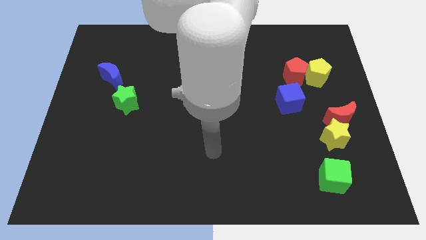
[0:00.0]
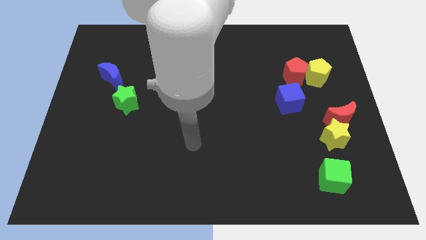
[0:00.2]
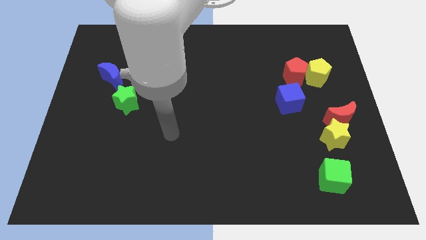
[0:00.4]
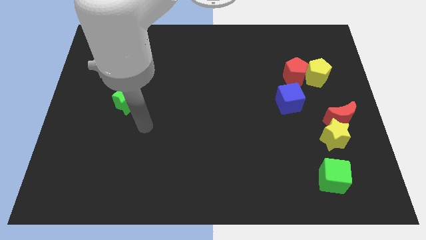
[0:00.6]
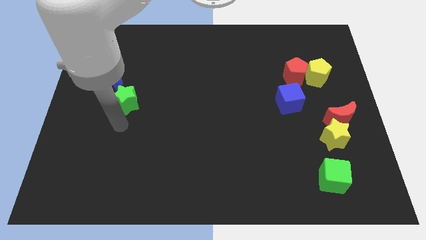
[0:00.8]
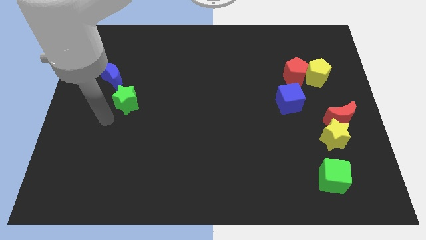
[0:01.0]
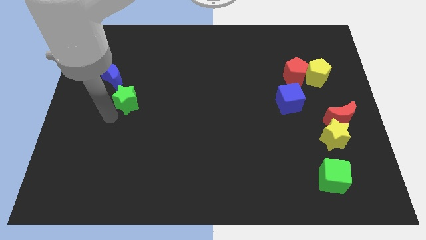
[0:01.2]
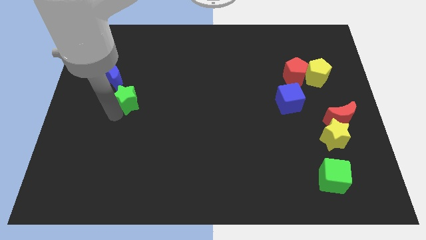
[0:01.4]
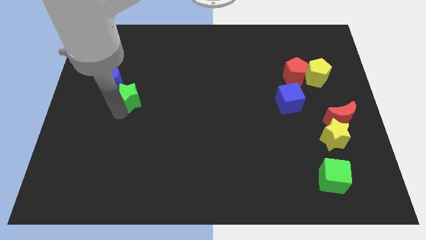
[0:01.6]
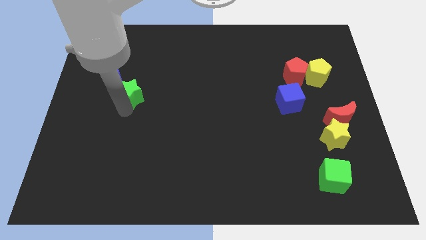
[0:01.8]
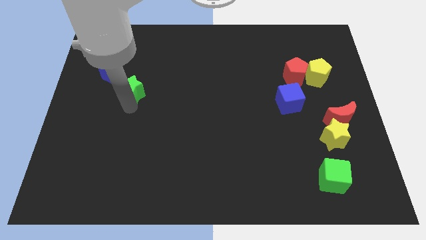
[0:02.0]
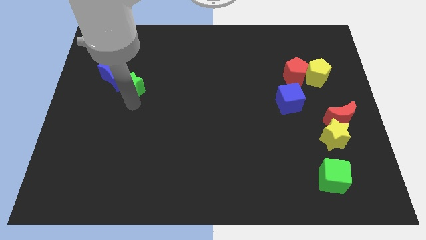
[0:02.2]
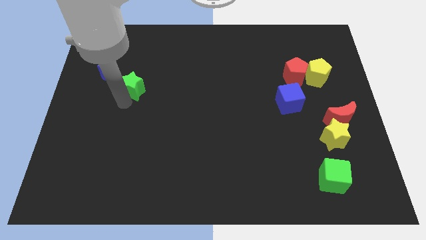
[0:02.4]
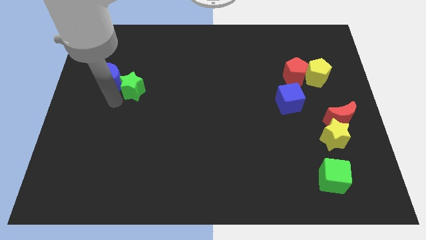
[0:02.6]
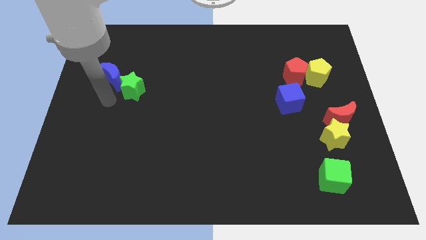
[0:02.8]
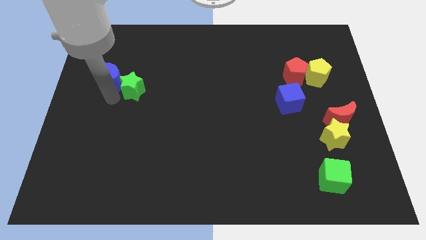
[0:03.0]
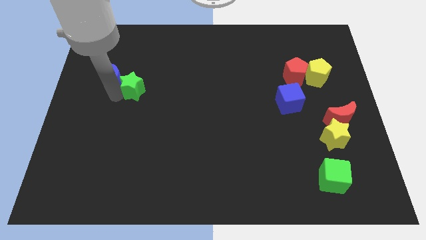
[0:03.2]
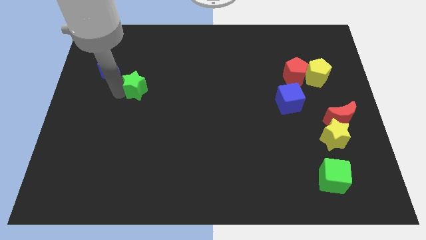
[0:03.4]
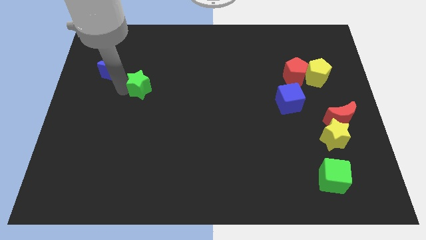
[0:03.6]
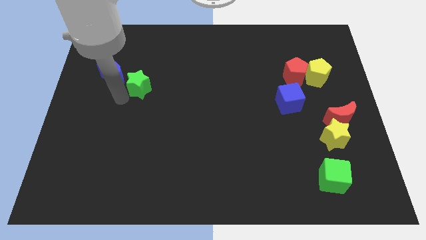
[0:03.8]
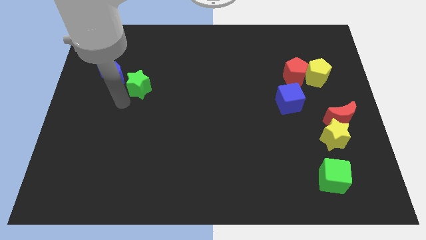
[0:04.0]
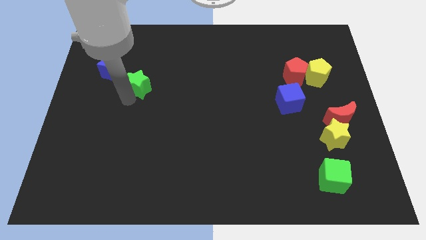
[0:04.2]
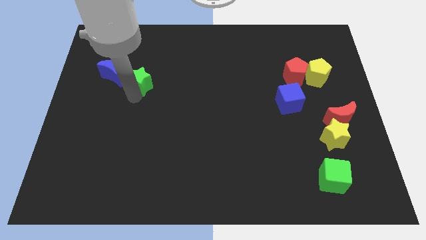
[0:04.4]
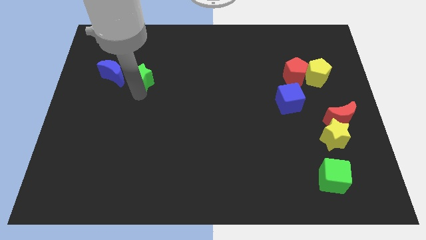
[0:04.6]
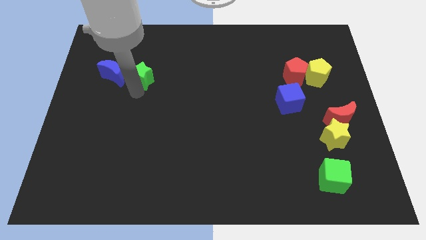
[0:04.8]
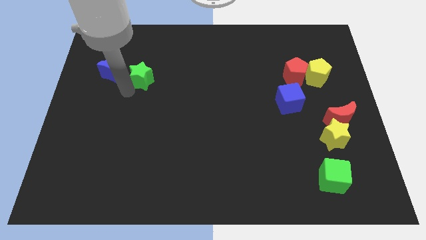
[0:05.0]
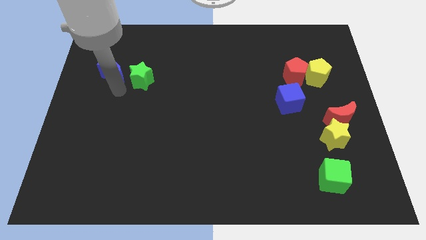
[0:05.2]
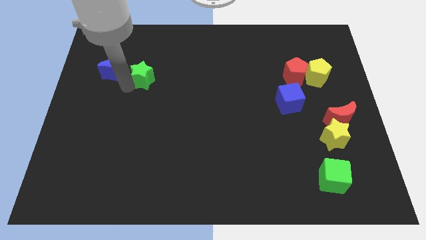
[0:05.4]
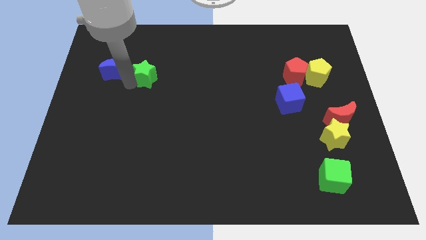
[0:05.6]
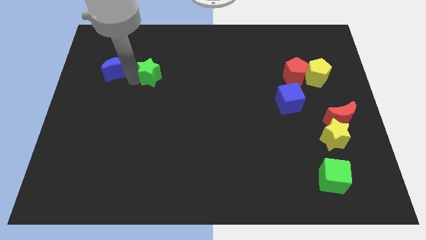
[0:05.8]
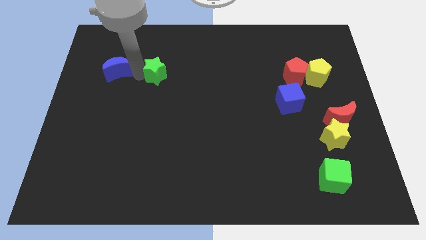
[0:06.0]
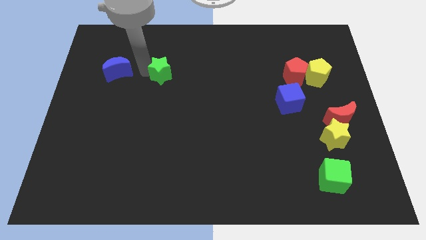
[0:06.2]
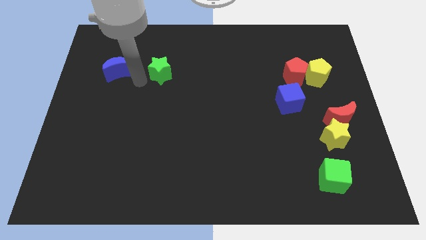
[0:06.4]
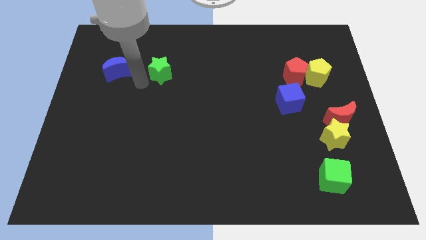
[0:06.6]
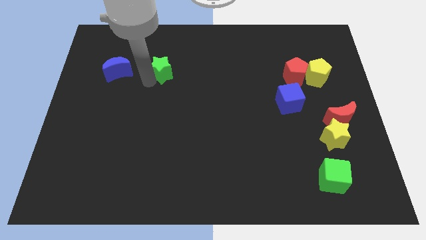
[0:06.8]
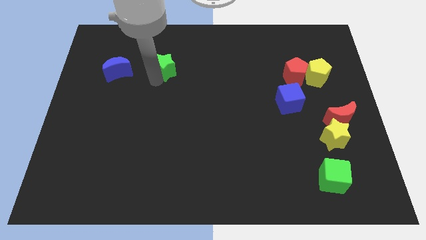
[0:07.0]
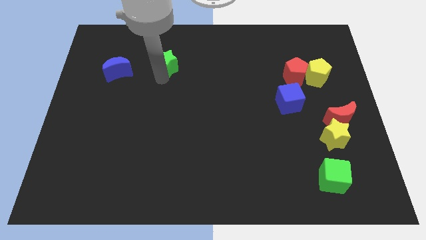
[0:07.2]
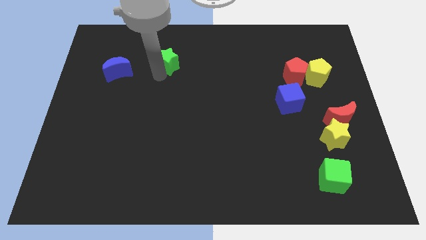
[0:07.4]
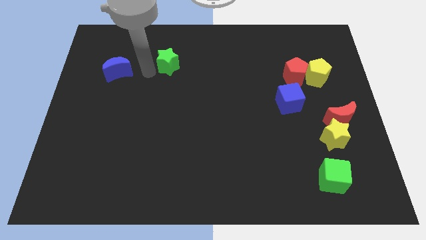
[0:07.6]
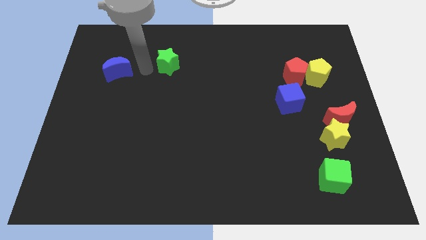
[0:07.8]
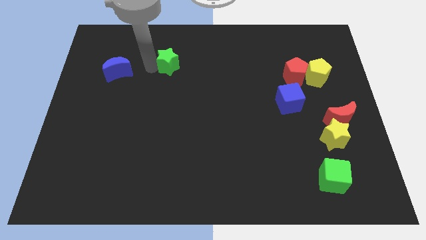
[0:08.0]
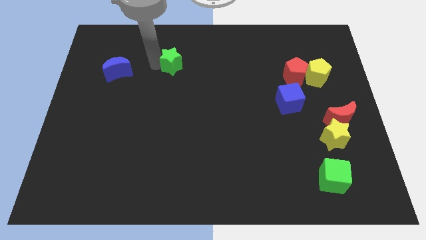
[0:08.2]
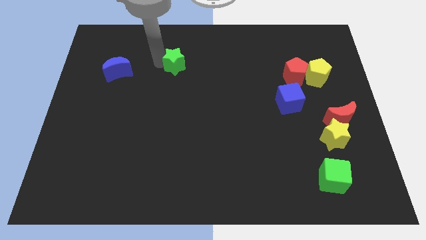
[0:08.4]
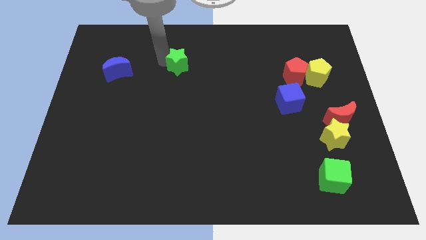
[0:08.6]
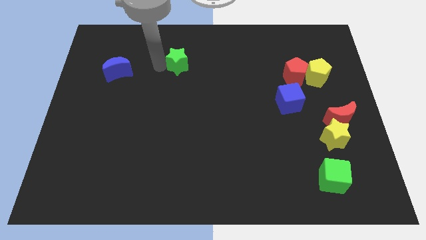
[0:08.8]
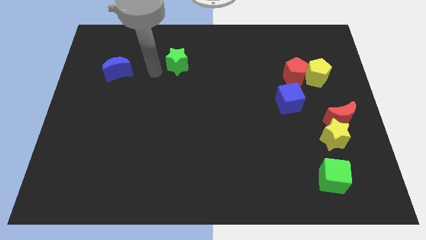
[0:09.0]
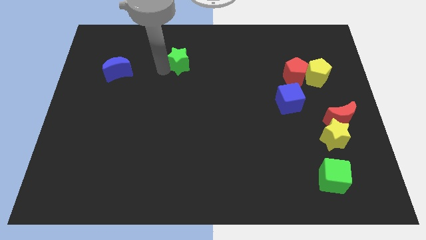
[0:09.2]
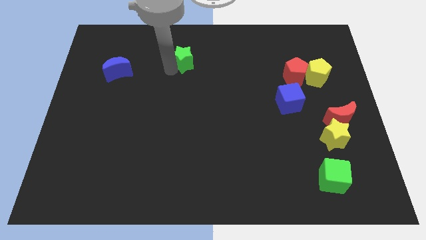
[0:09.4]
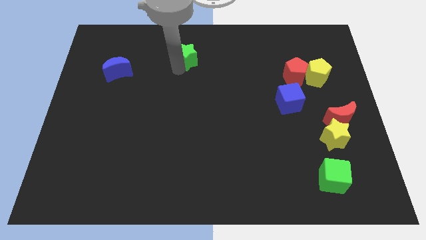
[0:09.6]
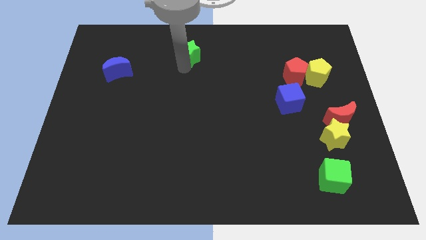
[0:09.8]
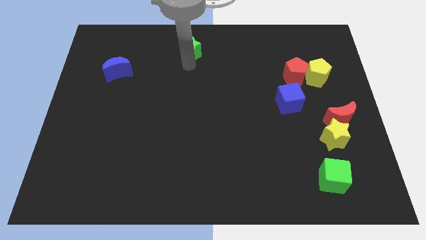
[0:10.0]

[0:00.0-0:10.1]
slide the green star to the top side

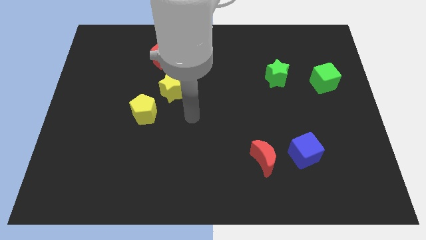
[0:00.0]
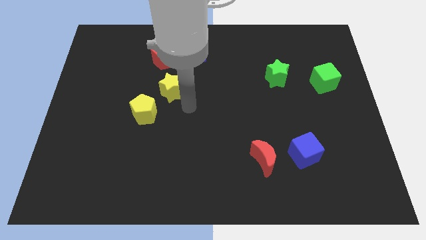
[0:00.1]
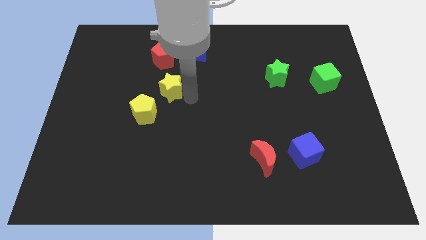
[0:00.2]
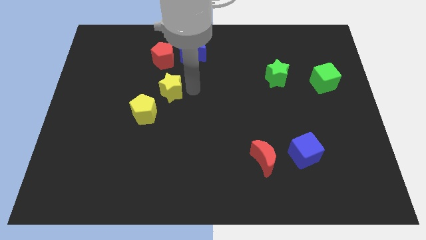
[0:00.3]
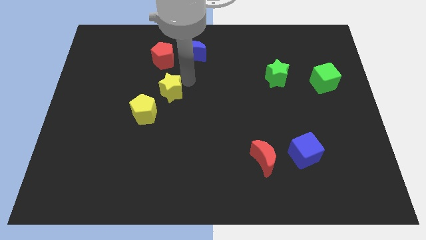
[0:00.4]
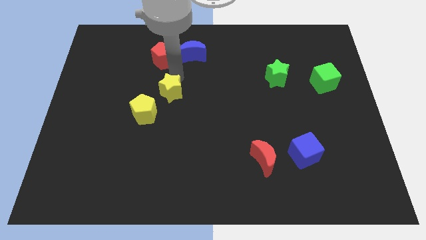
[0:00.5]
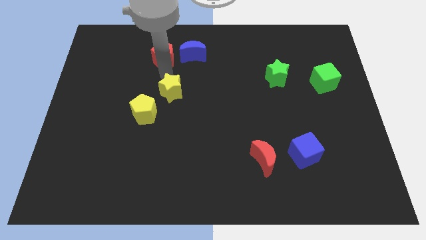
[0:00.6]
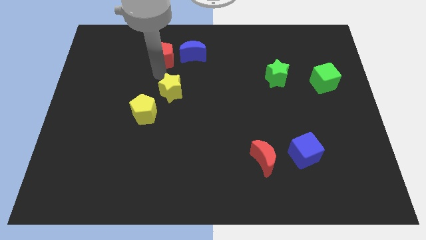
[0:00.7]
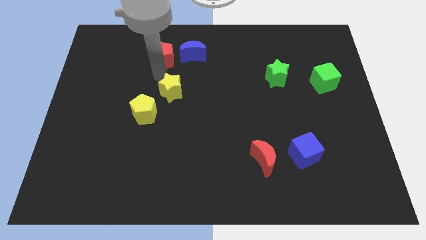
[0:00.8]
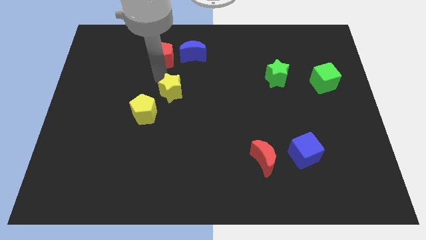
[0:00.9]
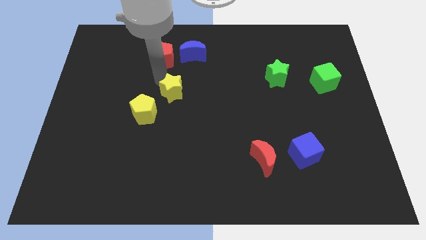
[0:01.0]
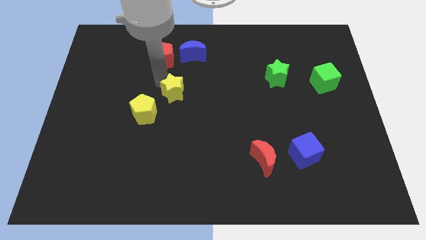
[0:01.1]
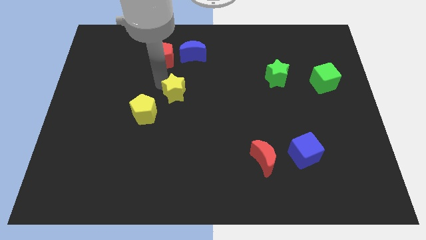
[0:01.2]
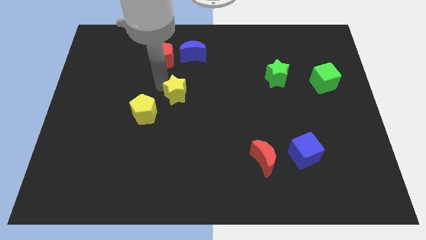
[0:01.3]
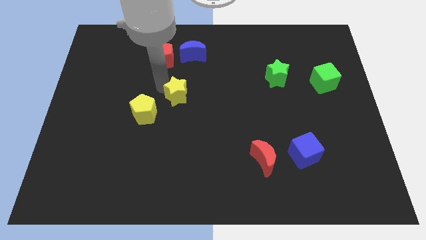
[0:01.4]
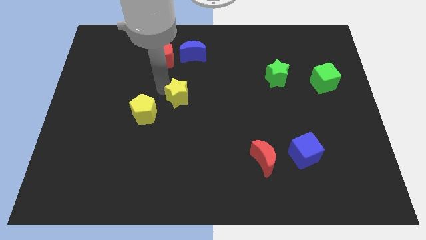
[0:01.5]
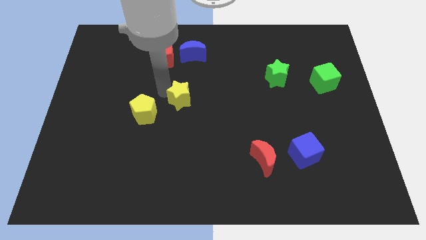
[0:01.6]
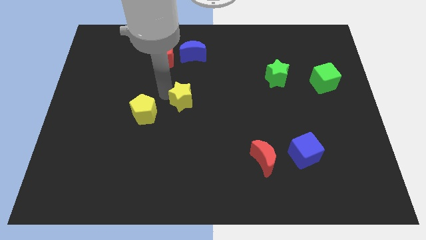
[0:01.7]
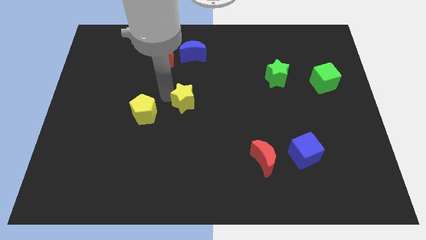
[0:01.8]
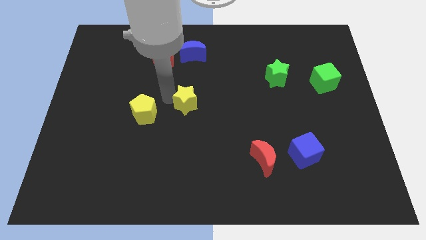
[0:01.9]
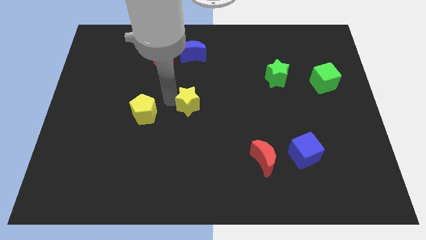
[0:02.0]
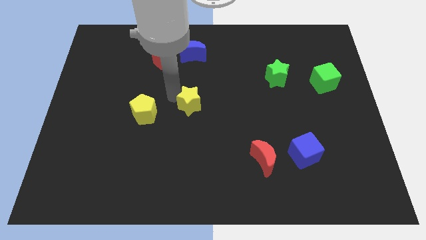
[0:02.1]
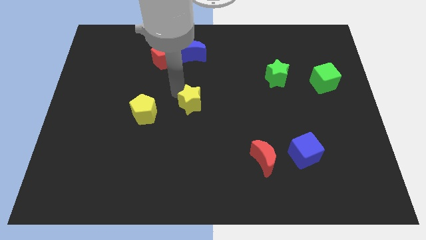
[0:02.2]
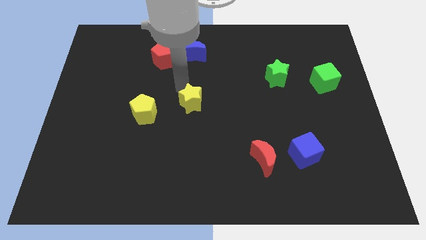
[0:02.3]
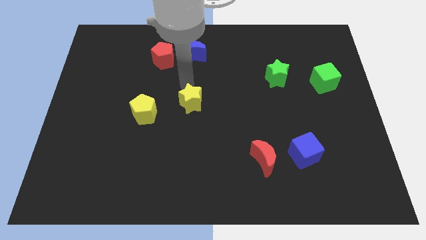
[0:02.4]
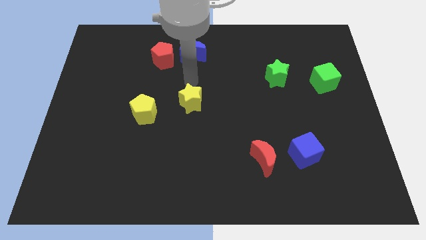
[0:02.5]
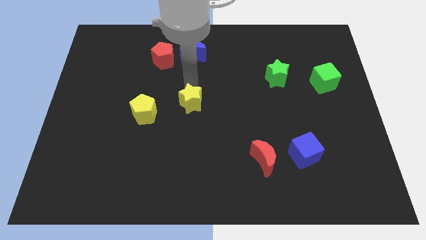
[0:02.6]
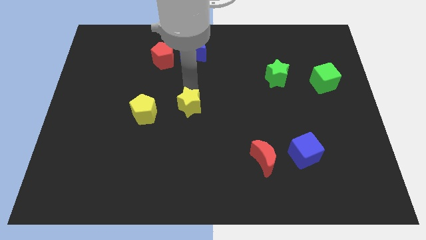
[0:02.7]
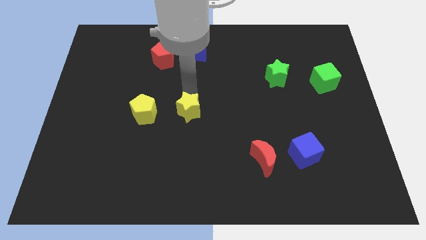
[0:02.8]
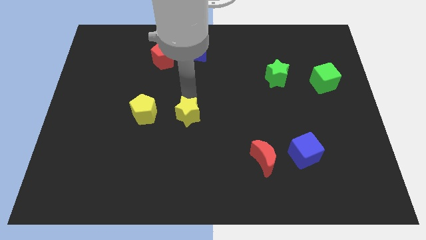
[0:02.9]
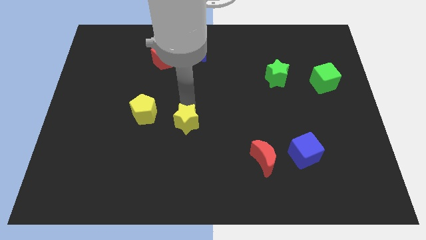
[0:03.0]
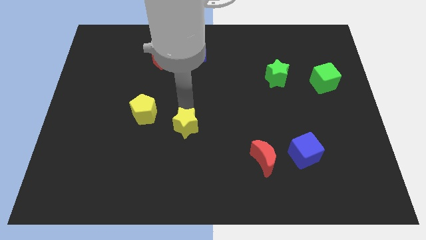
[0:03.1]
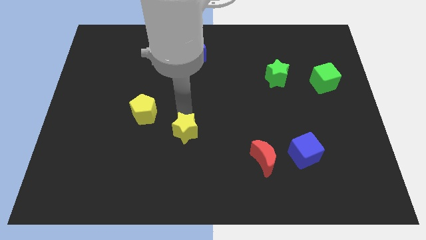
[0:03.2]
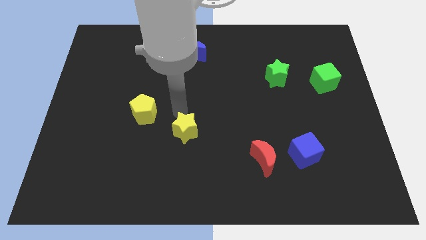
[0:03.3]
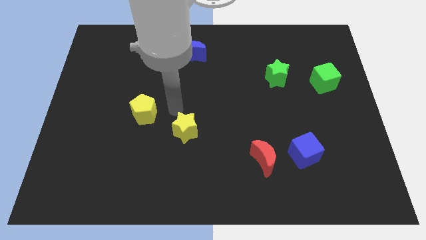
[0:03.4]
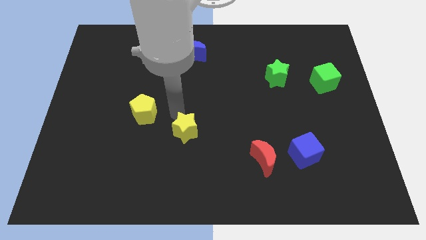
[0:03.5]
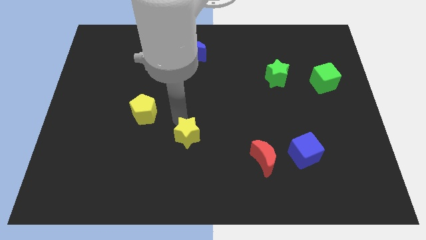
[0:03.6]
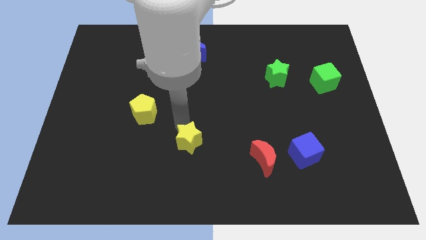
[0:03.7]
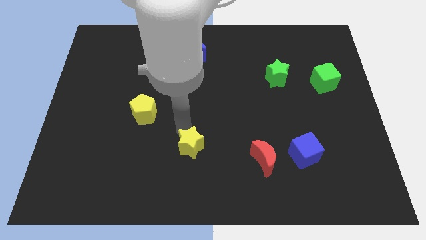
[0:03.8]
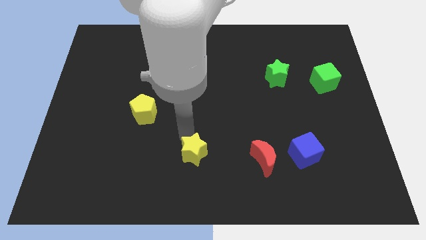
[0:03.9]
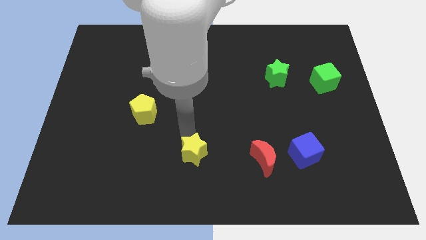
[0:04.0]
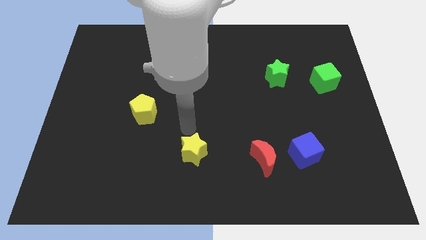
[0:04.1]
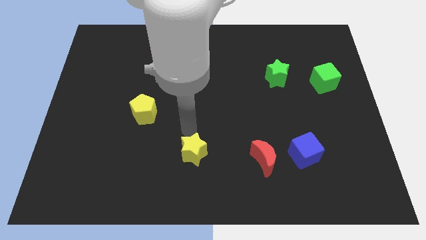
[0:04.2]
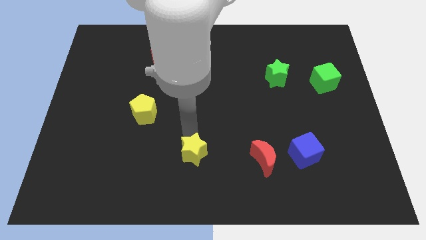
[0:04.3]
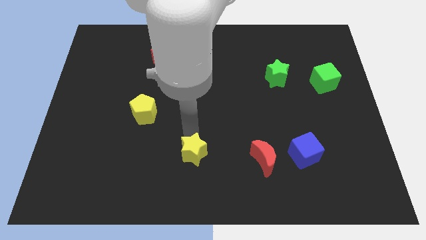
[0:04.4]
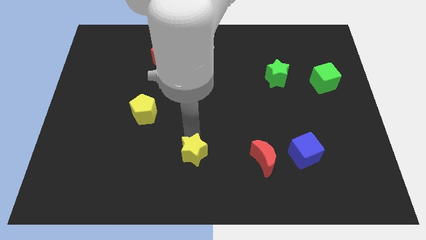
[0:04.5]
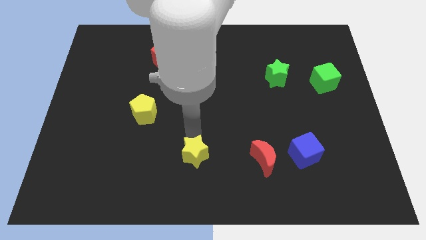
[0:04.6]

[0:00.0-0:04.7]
put the yellow star to the bottom side
